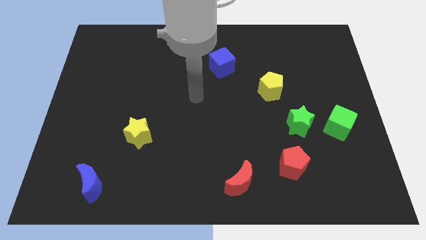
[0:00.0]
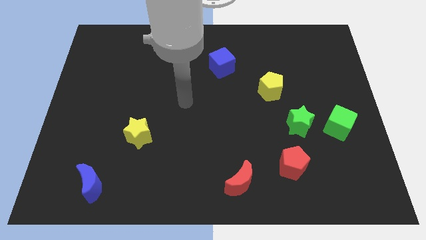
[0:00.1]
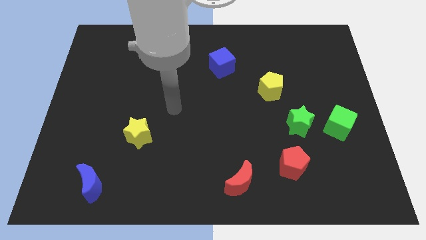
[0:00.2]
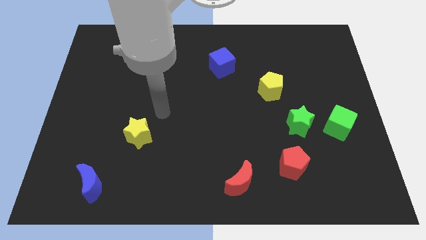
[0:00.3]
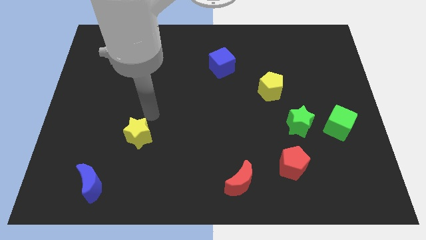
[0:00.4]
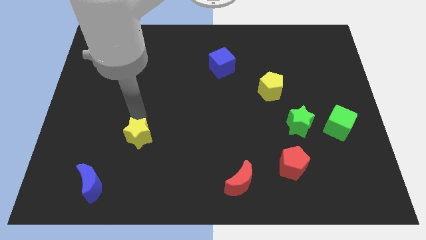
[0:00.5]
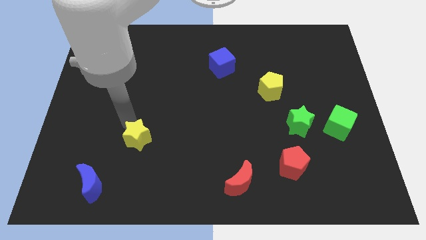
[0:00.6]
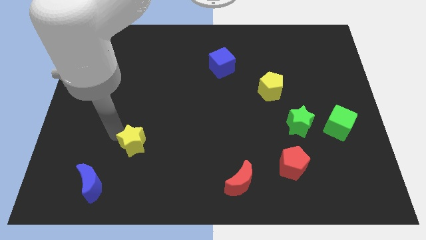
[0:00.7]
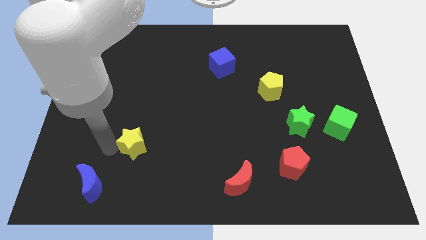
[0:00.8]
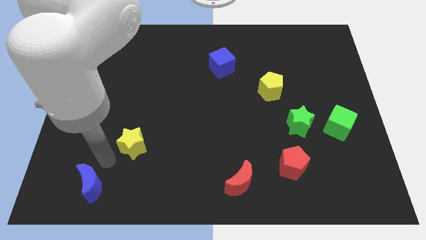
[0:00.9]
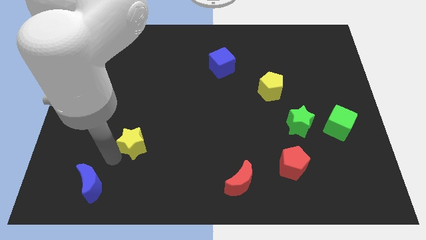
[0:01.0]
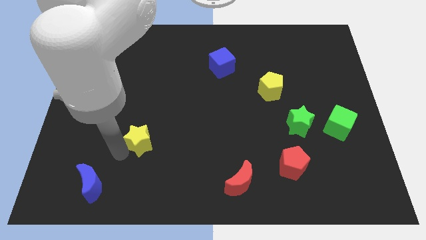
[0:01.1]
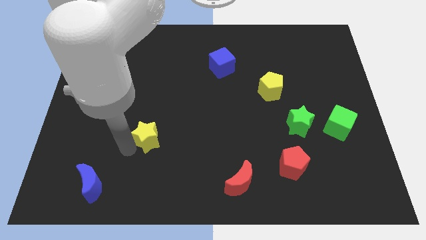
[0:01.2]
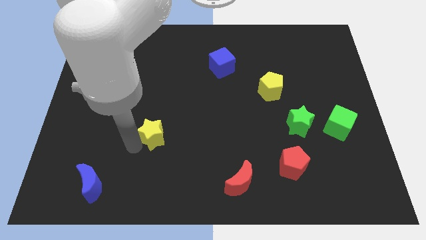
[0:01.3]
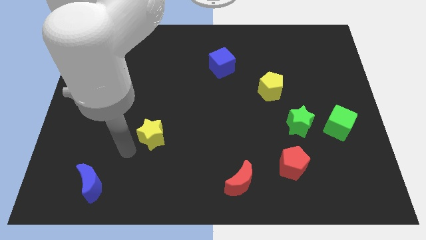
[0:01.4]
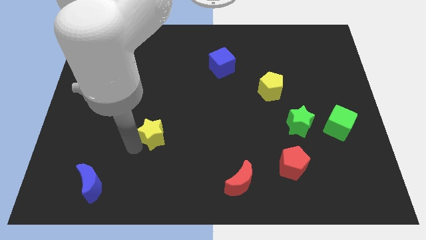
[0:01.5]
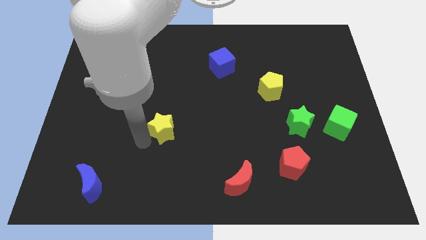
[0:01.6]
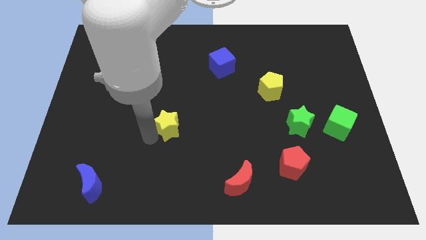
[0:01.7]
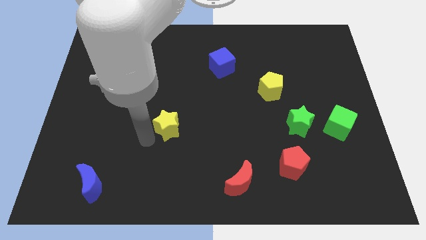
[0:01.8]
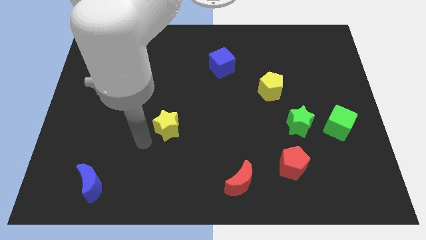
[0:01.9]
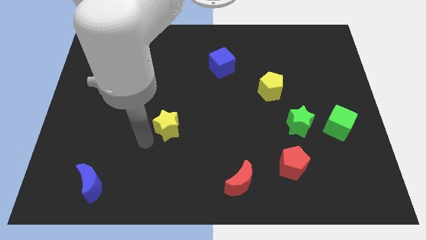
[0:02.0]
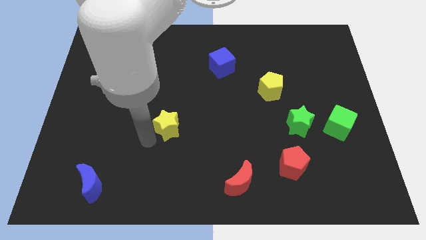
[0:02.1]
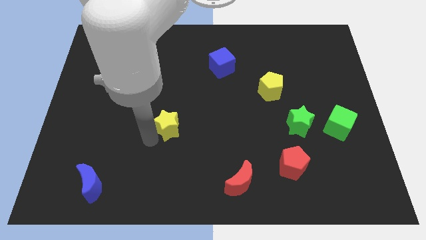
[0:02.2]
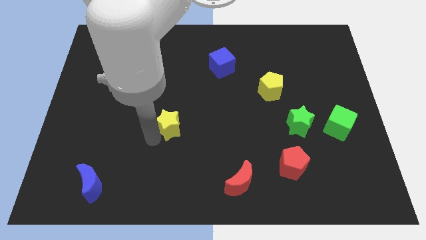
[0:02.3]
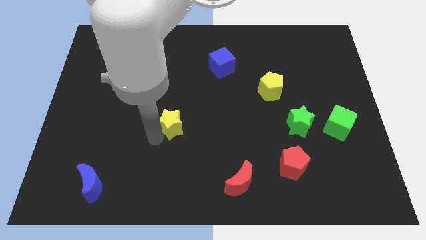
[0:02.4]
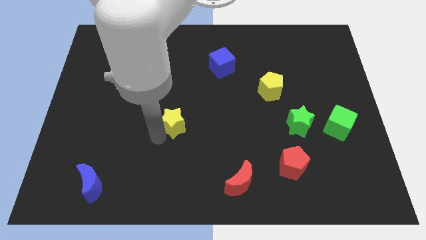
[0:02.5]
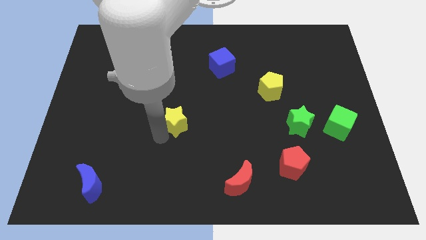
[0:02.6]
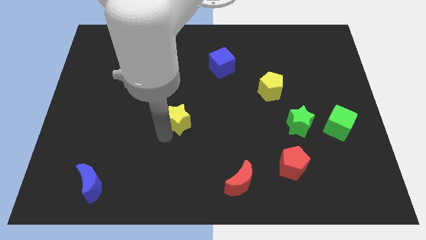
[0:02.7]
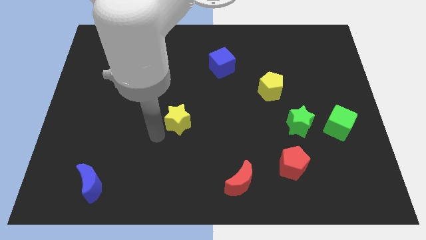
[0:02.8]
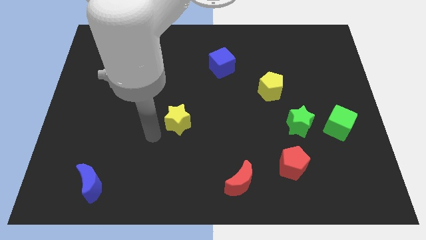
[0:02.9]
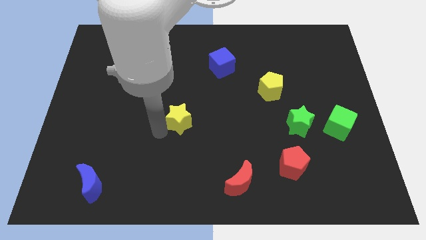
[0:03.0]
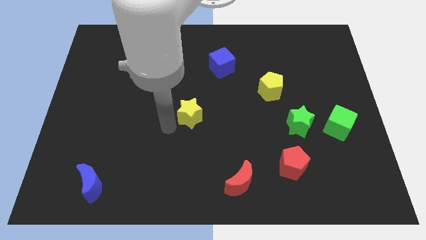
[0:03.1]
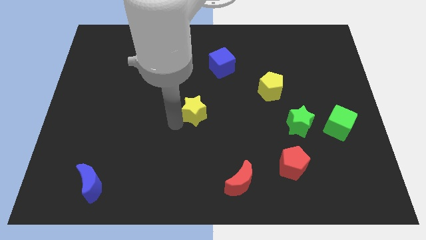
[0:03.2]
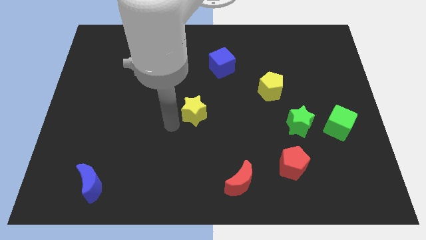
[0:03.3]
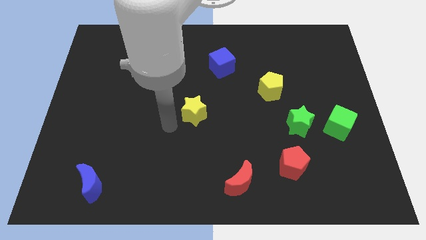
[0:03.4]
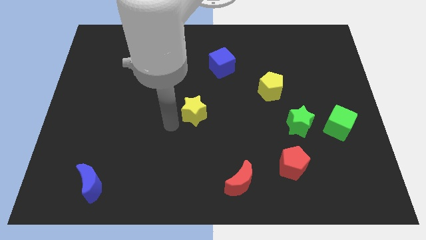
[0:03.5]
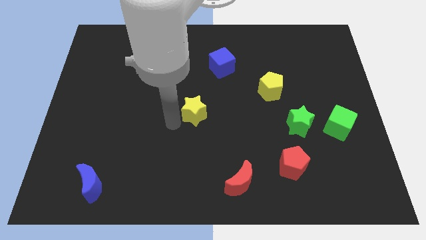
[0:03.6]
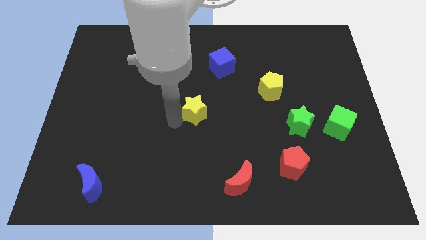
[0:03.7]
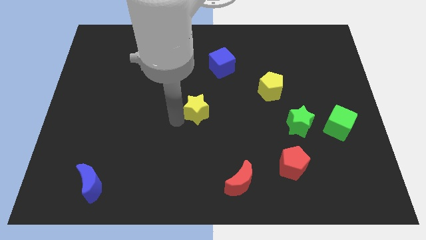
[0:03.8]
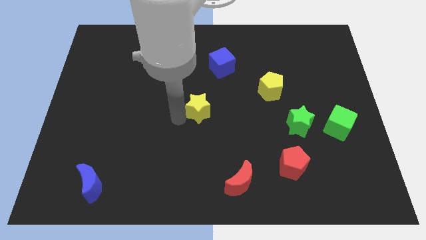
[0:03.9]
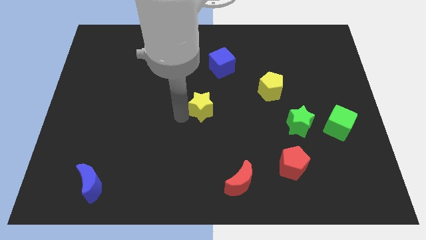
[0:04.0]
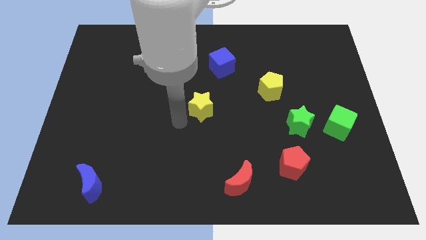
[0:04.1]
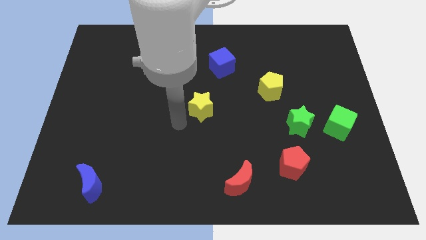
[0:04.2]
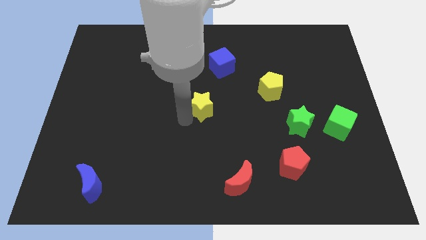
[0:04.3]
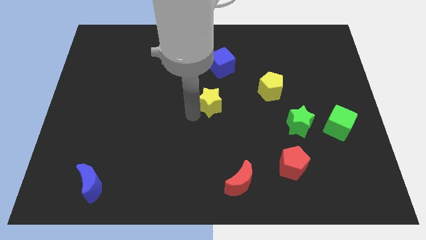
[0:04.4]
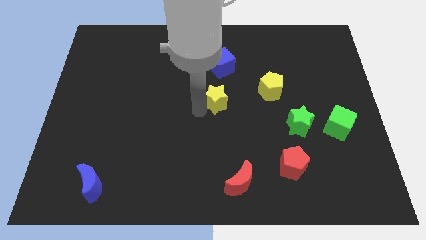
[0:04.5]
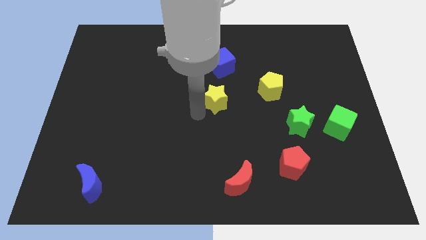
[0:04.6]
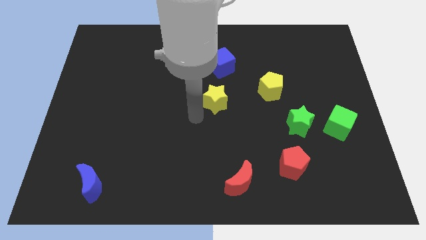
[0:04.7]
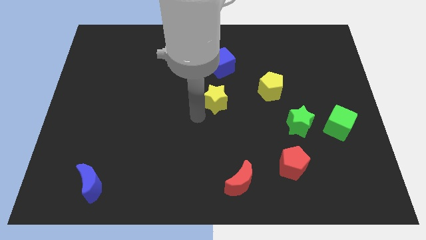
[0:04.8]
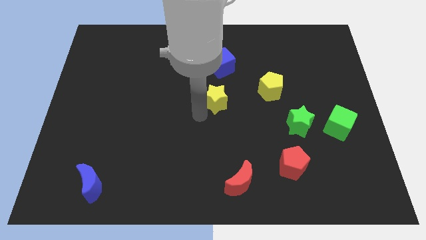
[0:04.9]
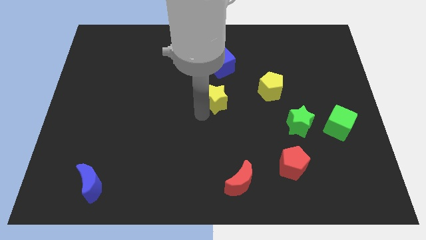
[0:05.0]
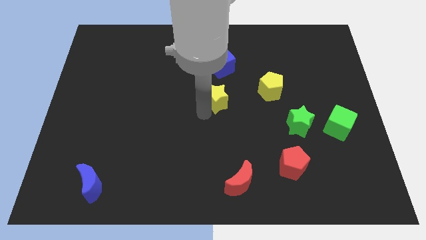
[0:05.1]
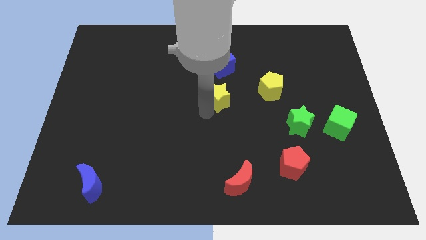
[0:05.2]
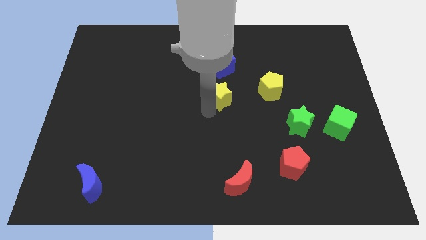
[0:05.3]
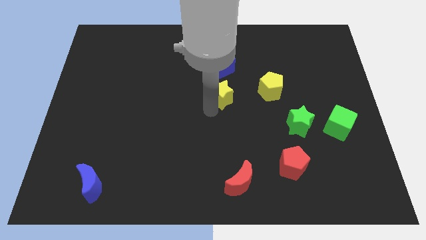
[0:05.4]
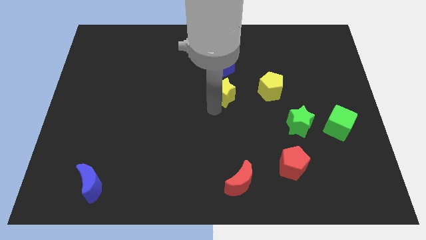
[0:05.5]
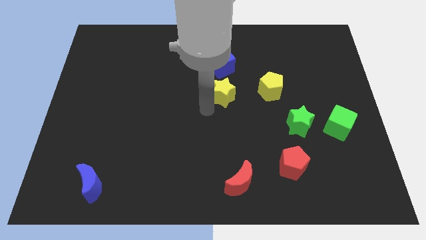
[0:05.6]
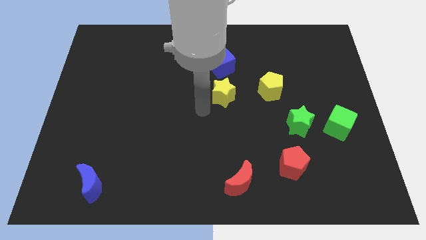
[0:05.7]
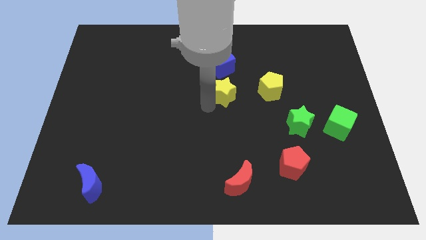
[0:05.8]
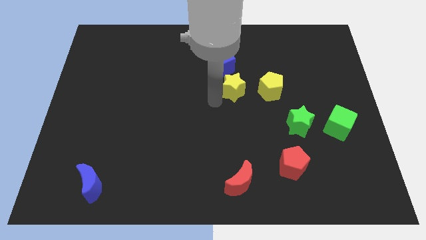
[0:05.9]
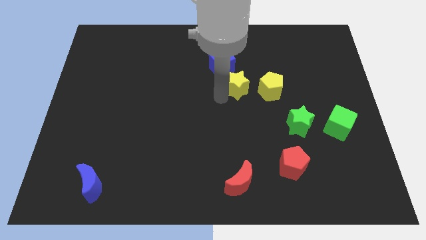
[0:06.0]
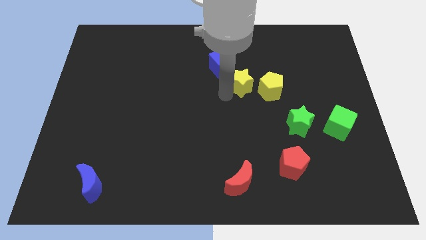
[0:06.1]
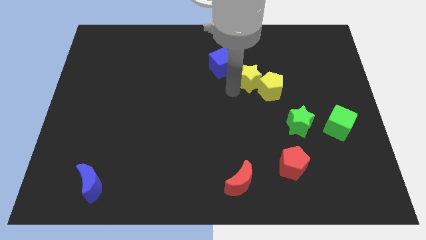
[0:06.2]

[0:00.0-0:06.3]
push the yellow star to the right side of the blue cube
